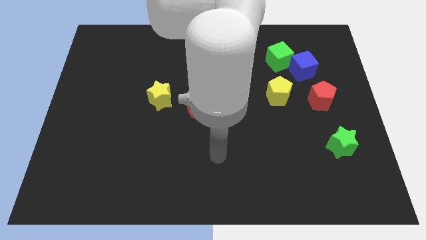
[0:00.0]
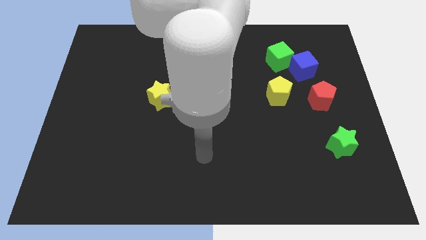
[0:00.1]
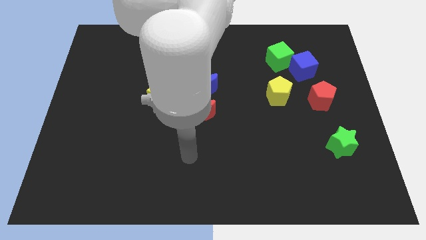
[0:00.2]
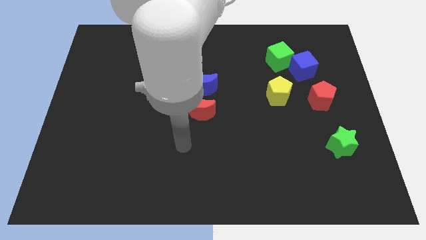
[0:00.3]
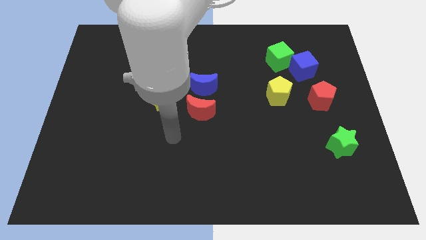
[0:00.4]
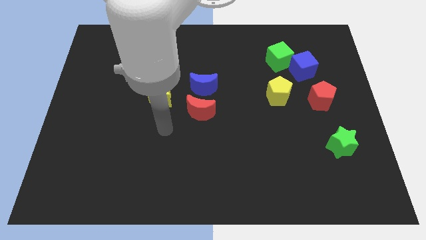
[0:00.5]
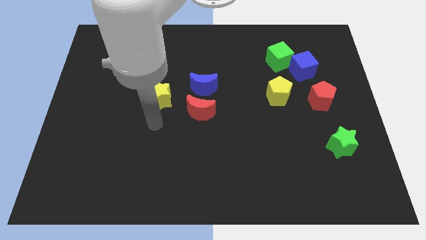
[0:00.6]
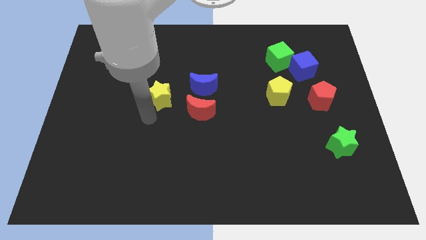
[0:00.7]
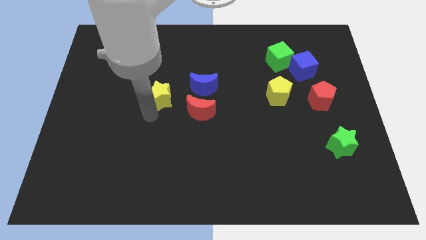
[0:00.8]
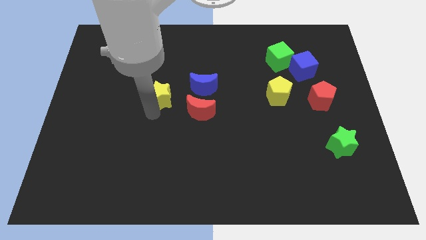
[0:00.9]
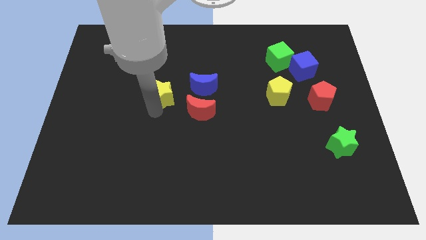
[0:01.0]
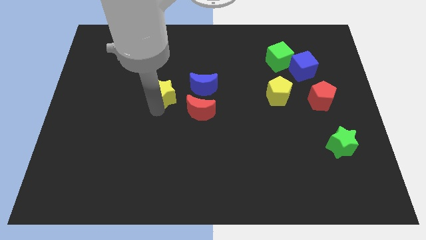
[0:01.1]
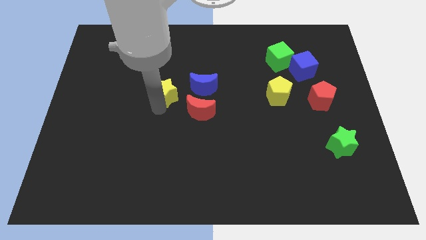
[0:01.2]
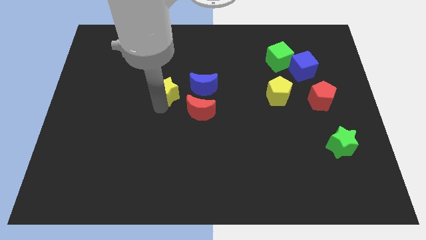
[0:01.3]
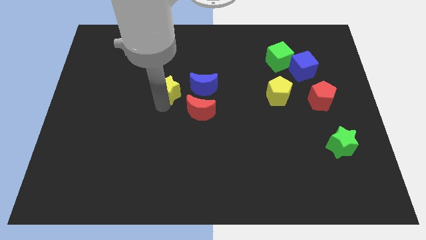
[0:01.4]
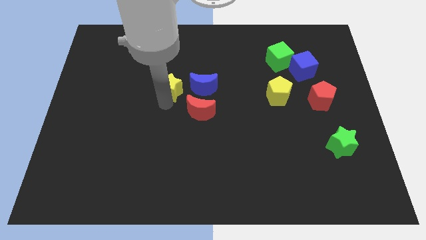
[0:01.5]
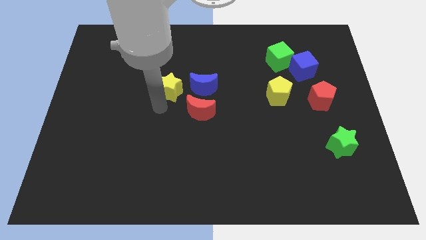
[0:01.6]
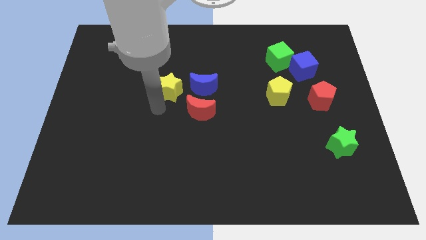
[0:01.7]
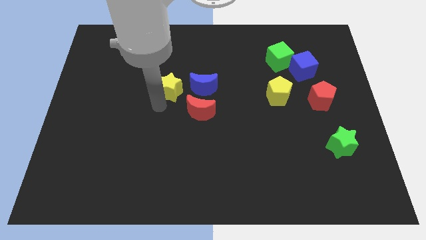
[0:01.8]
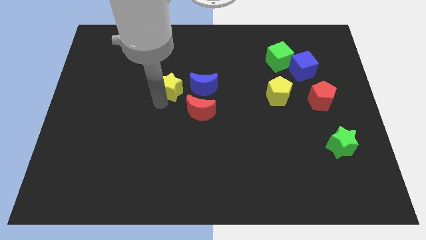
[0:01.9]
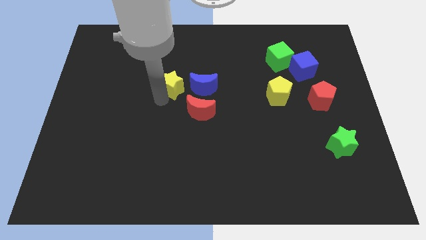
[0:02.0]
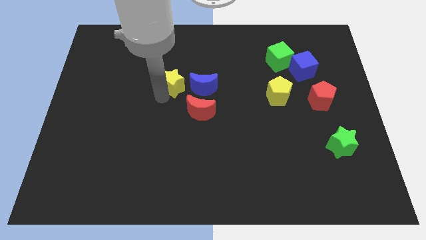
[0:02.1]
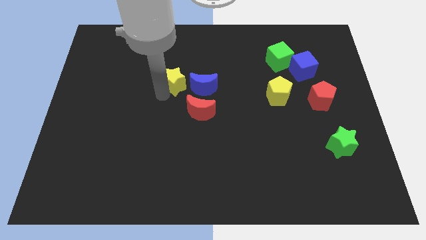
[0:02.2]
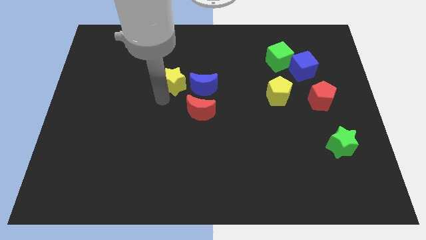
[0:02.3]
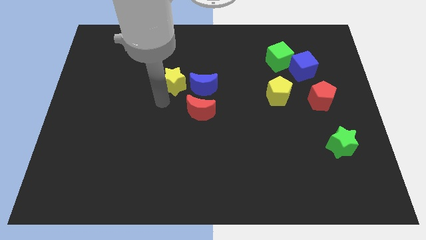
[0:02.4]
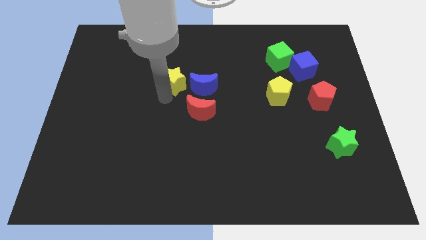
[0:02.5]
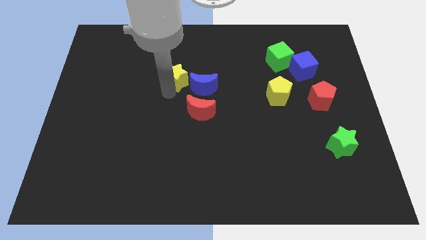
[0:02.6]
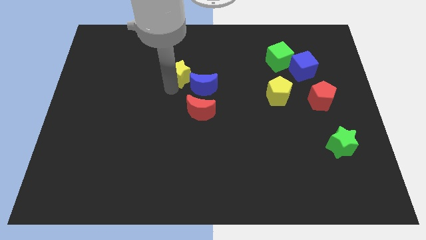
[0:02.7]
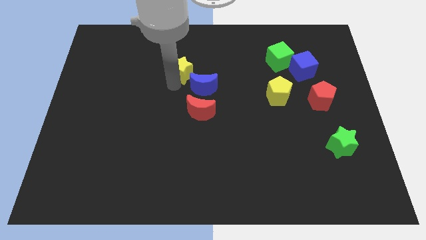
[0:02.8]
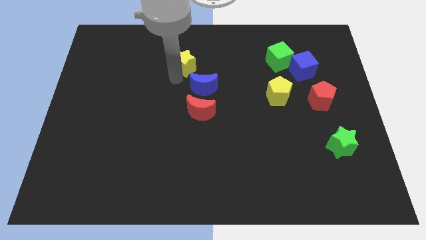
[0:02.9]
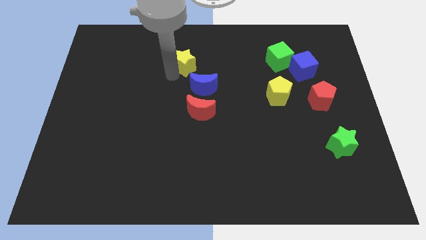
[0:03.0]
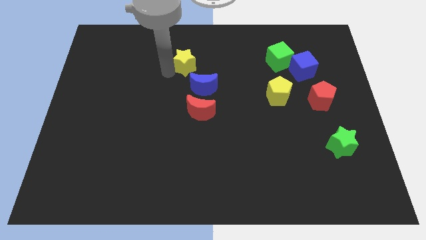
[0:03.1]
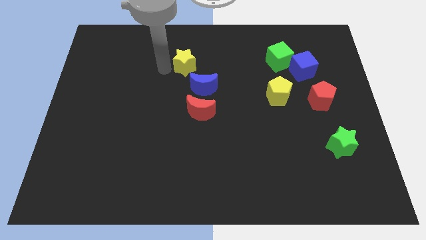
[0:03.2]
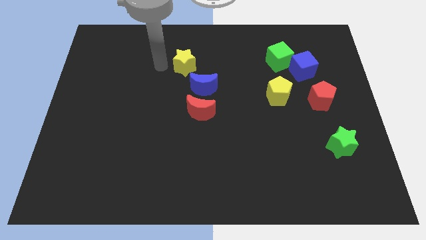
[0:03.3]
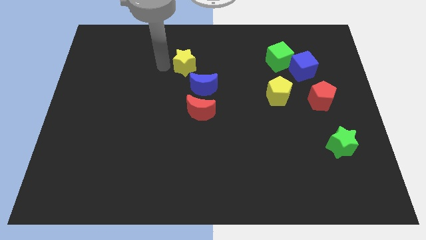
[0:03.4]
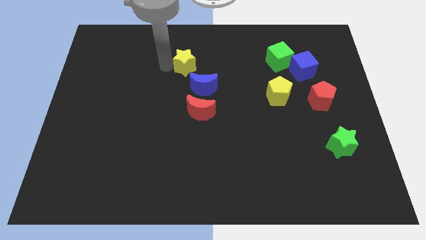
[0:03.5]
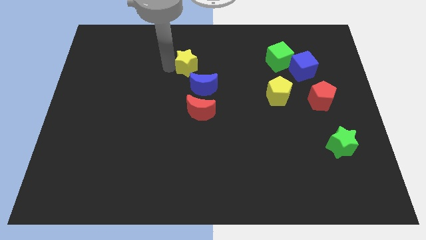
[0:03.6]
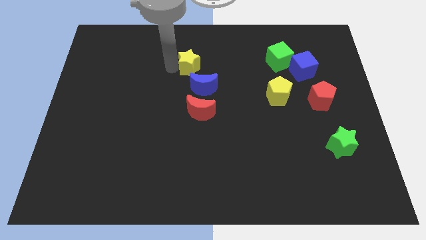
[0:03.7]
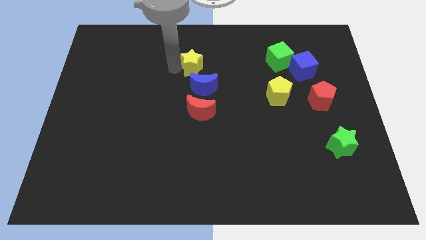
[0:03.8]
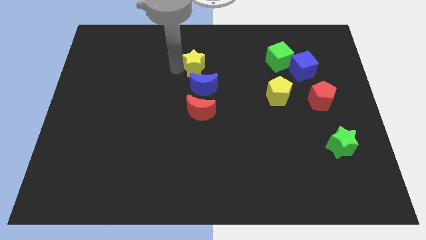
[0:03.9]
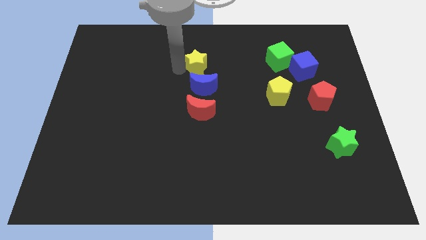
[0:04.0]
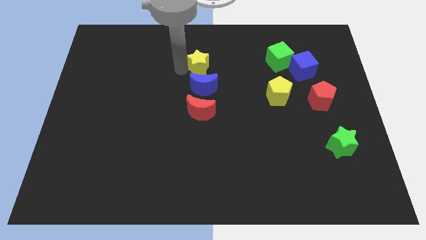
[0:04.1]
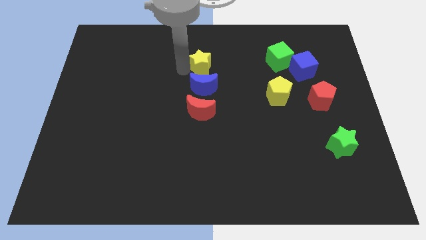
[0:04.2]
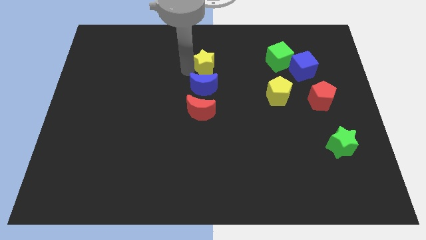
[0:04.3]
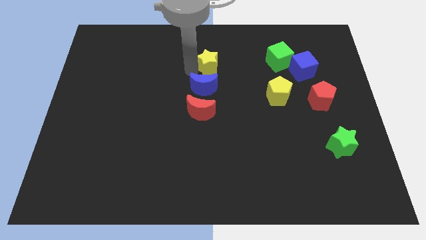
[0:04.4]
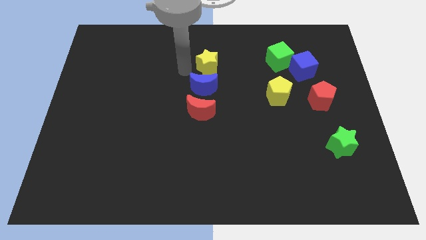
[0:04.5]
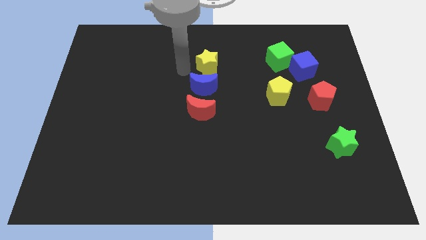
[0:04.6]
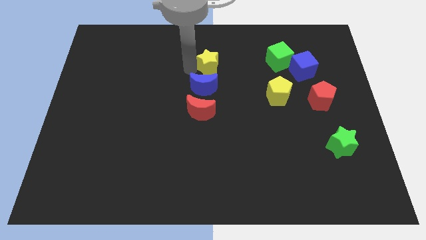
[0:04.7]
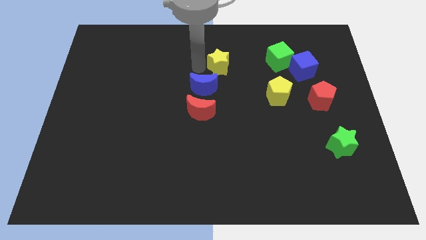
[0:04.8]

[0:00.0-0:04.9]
slide the yellow star just left of the green cube

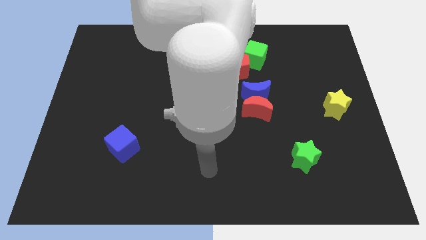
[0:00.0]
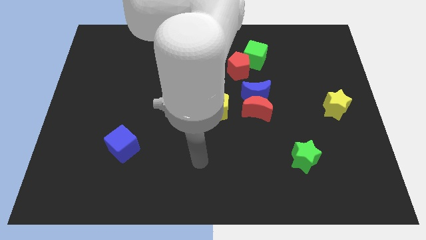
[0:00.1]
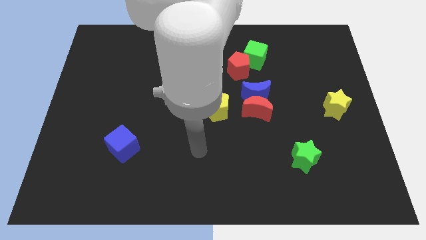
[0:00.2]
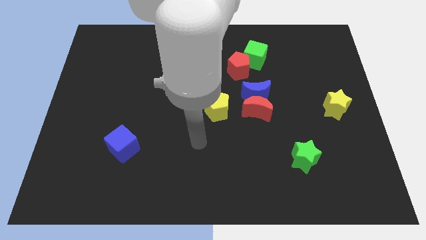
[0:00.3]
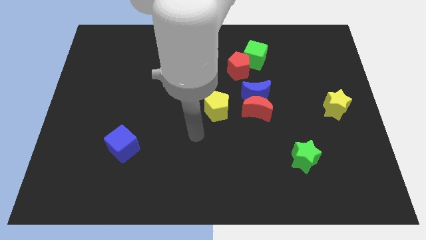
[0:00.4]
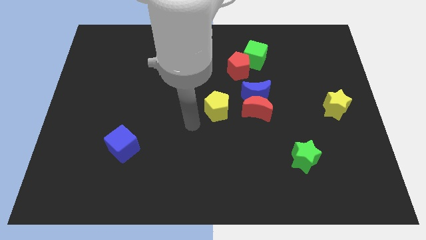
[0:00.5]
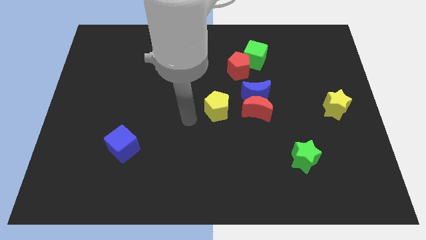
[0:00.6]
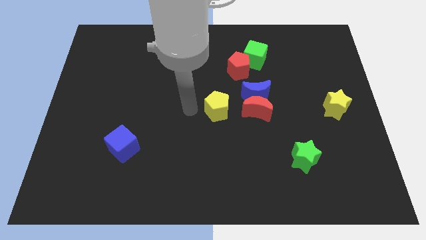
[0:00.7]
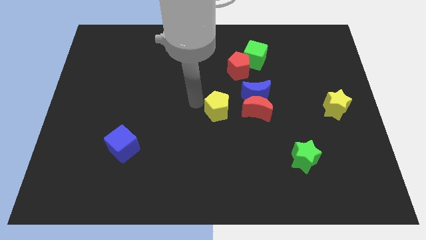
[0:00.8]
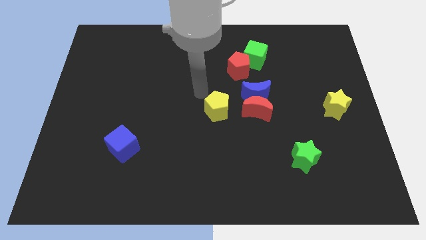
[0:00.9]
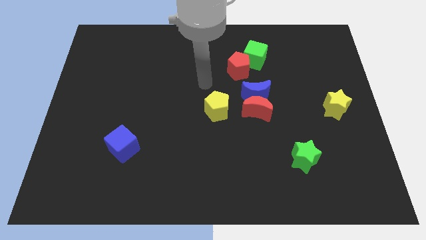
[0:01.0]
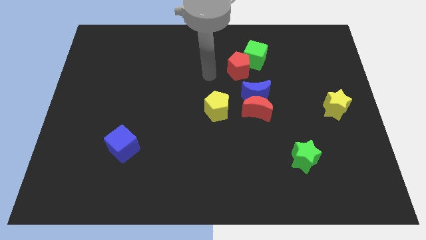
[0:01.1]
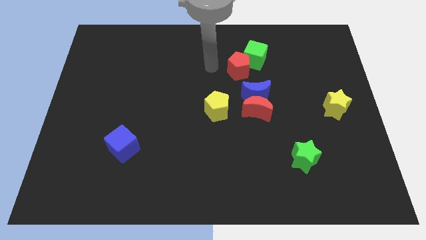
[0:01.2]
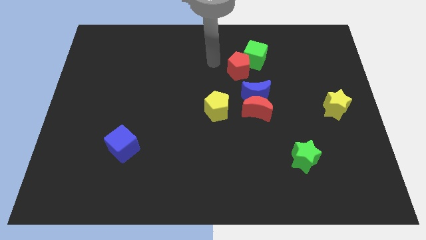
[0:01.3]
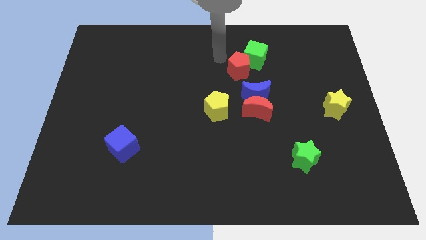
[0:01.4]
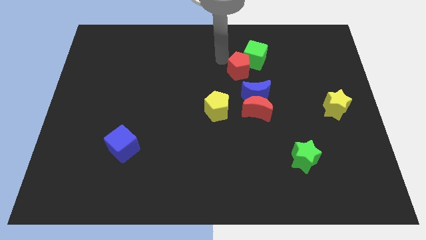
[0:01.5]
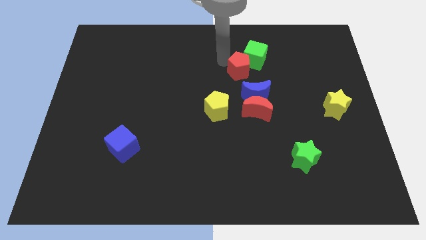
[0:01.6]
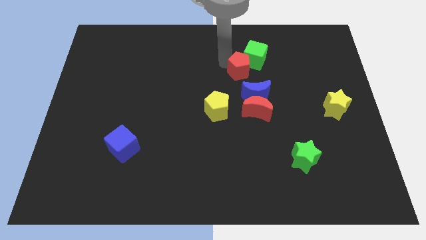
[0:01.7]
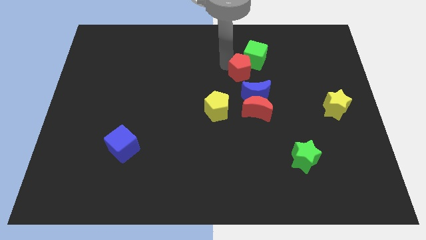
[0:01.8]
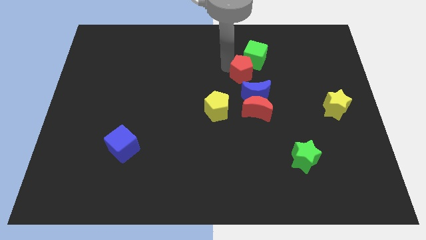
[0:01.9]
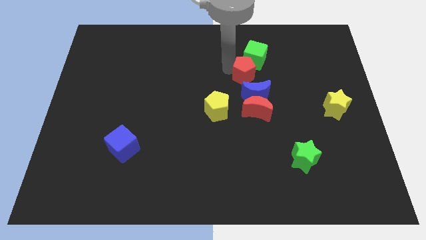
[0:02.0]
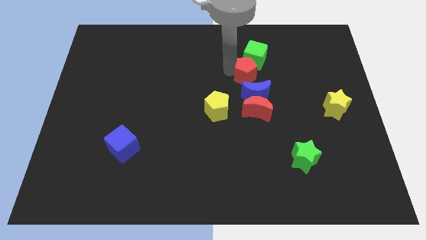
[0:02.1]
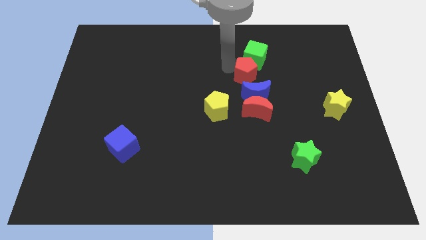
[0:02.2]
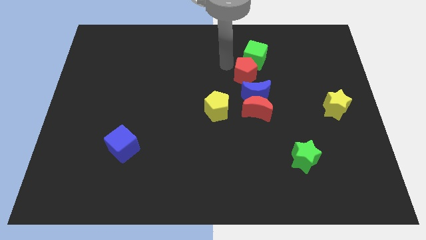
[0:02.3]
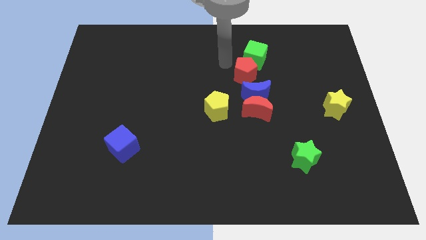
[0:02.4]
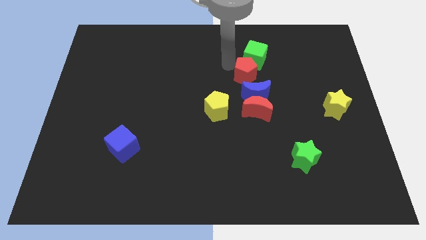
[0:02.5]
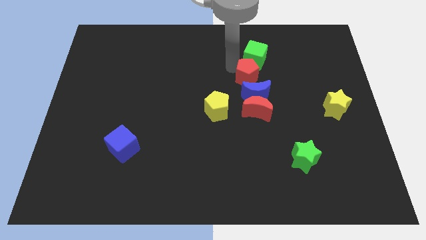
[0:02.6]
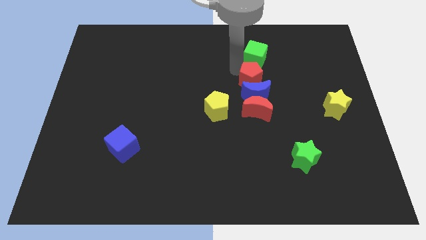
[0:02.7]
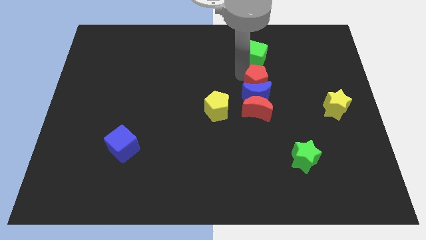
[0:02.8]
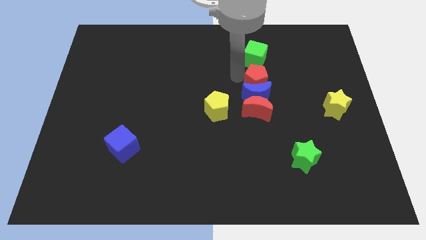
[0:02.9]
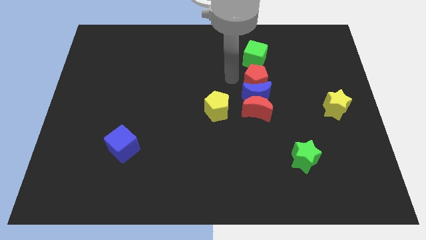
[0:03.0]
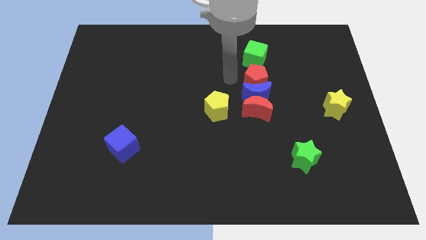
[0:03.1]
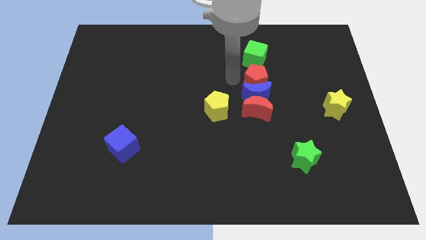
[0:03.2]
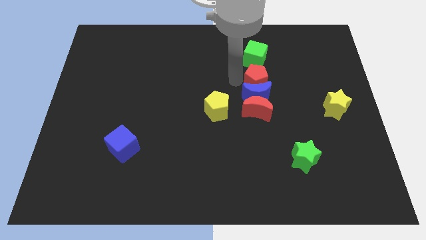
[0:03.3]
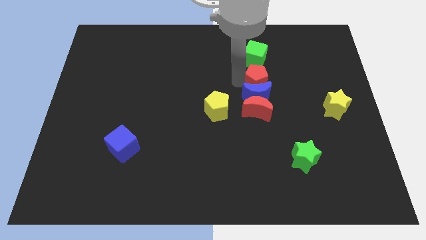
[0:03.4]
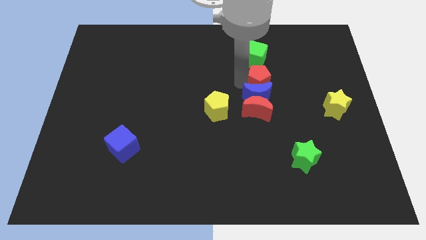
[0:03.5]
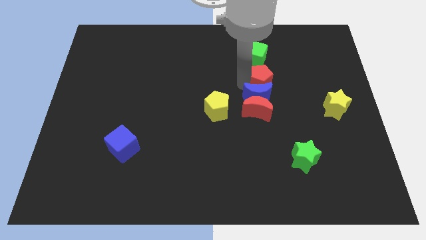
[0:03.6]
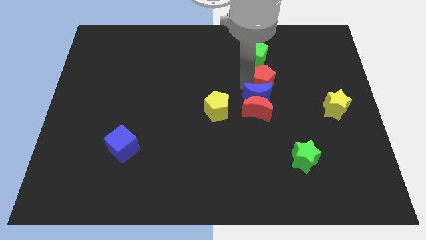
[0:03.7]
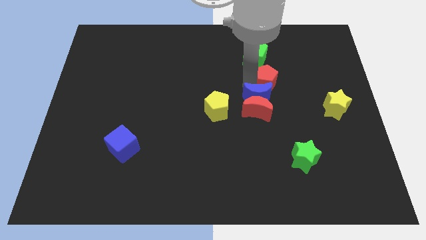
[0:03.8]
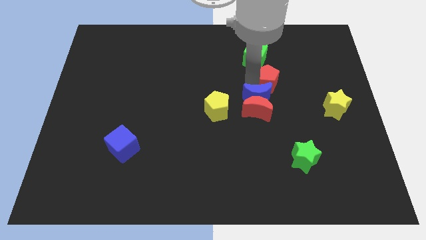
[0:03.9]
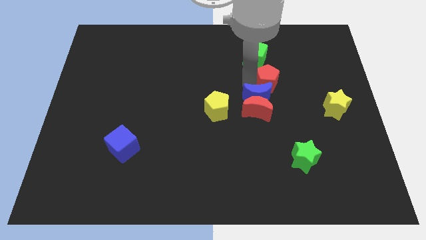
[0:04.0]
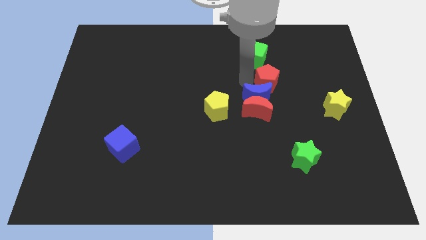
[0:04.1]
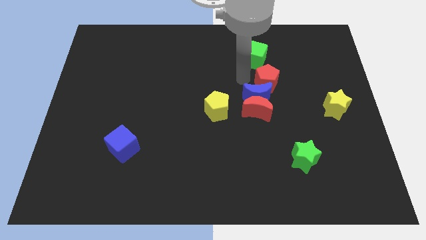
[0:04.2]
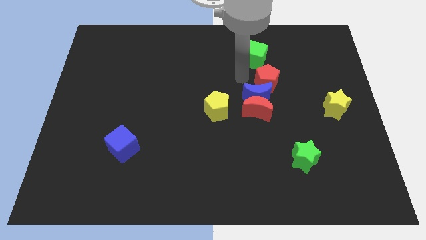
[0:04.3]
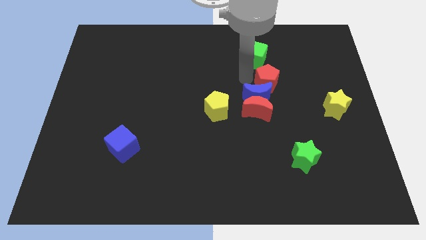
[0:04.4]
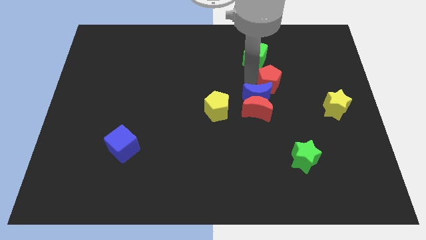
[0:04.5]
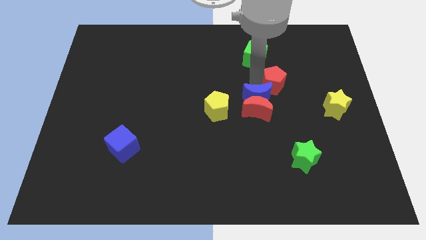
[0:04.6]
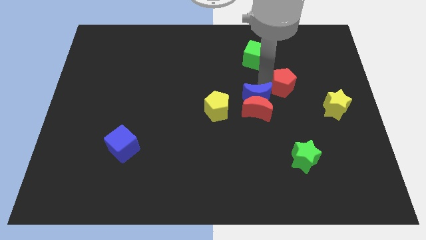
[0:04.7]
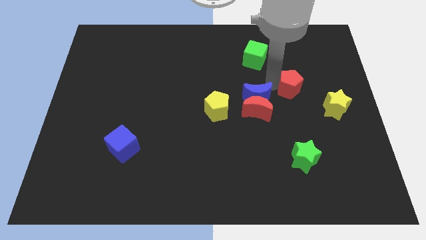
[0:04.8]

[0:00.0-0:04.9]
move the red pentagon diagonally up and to the left of the yellow star
